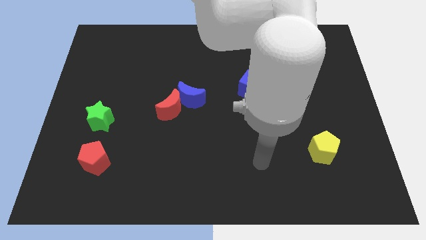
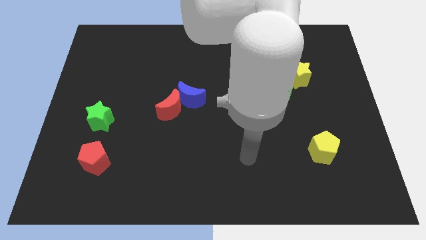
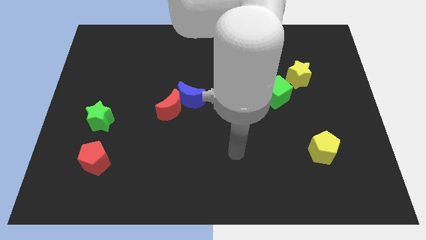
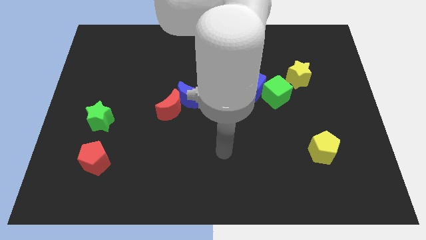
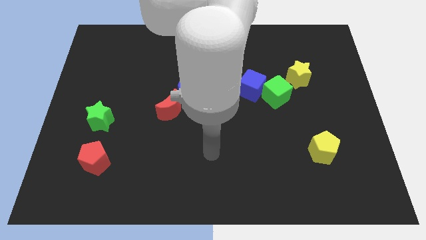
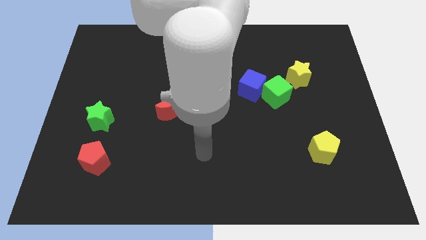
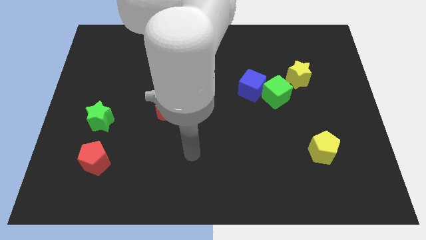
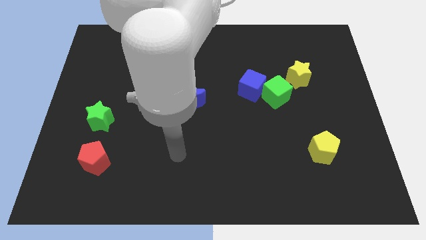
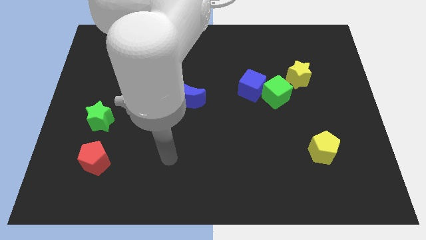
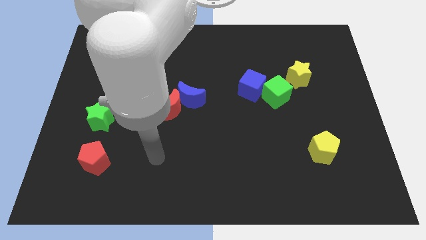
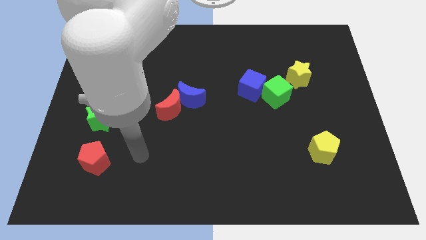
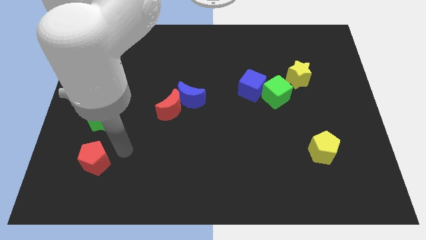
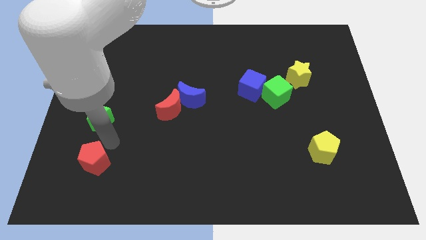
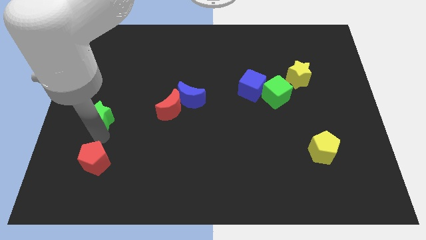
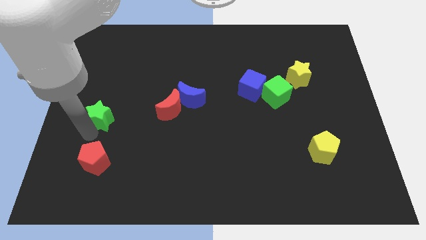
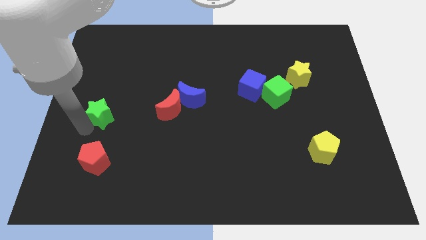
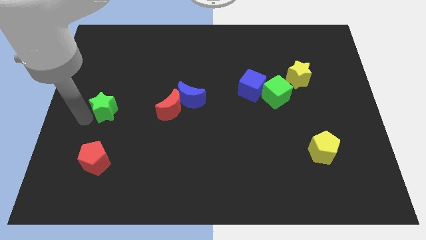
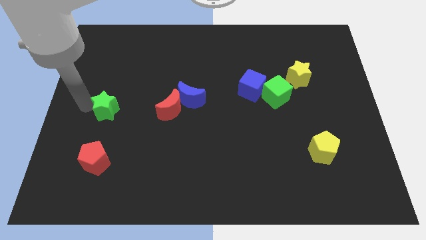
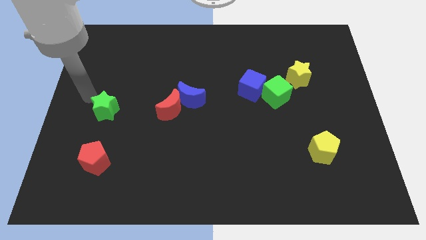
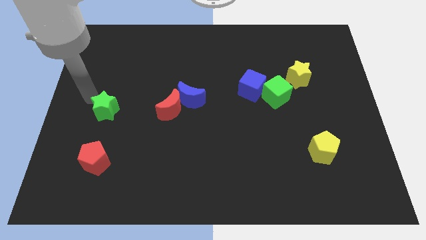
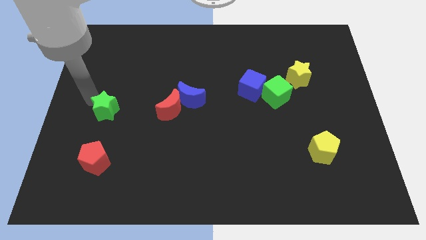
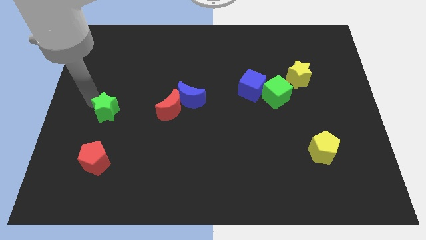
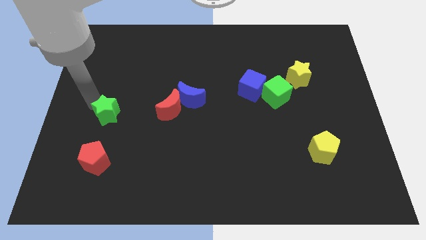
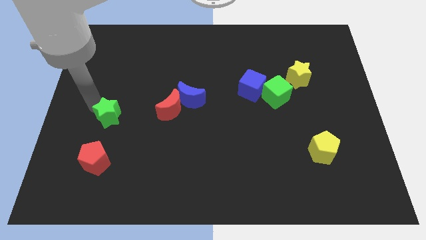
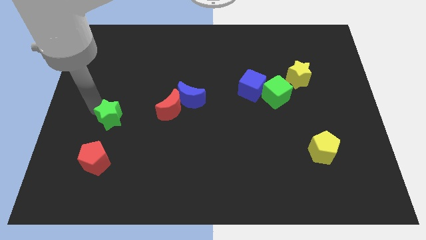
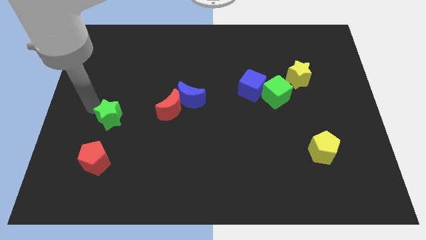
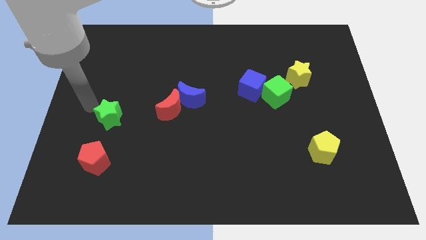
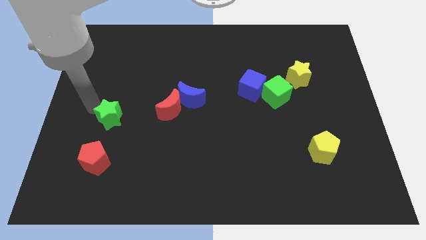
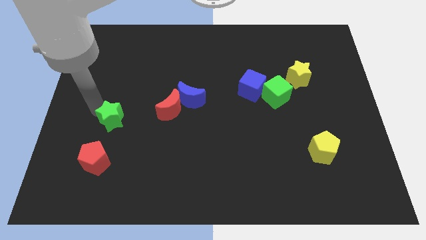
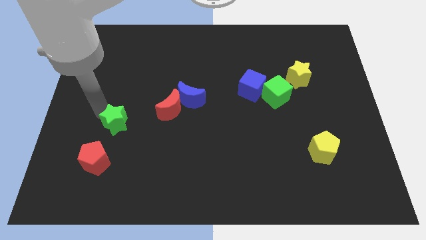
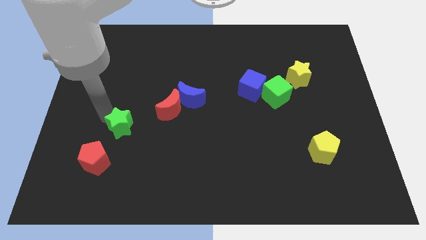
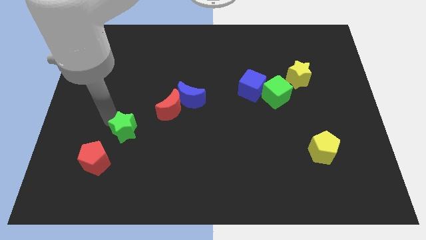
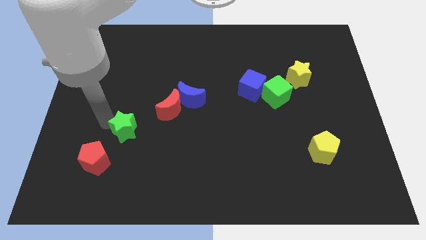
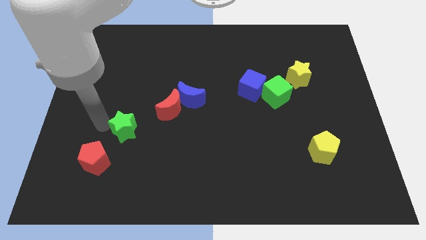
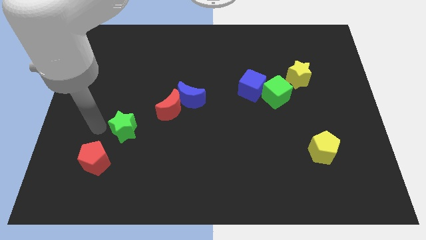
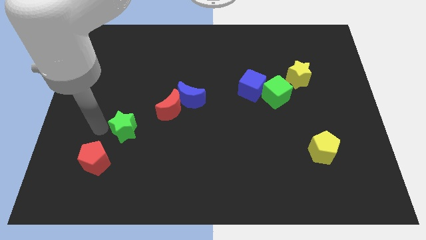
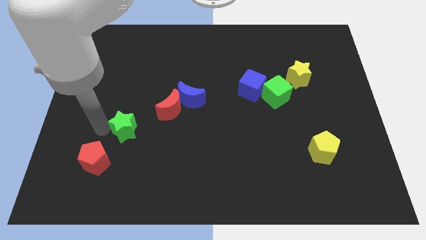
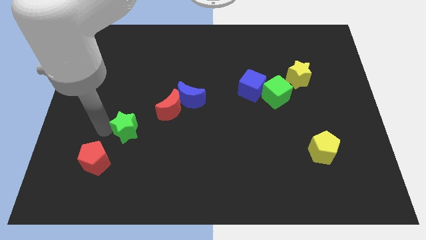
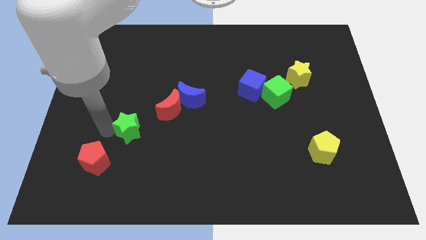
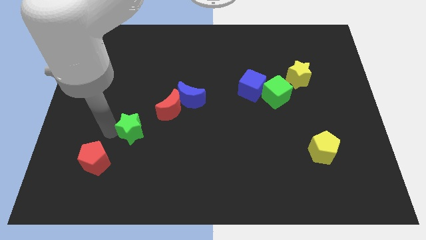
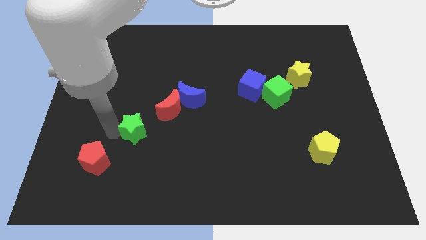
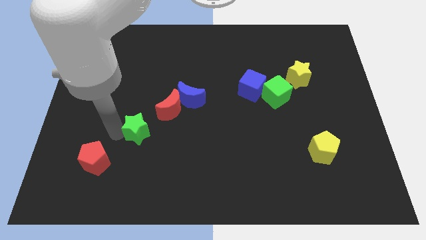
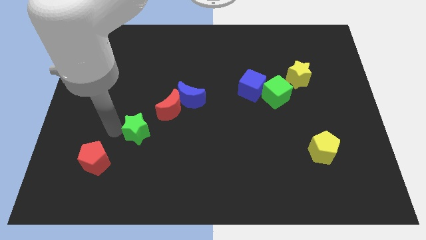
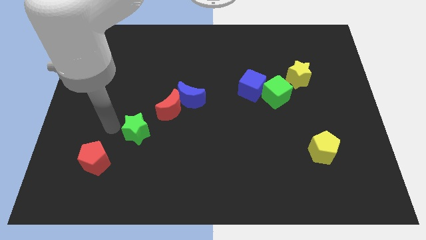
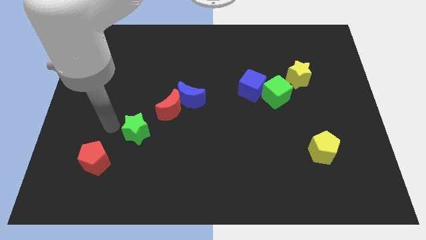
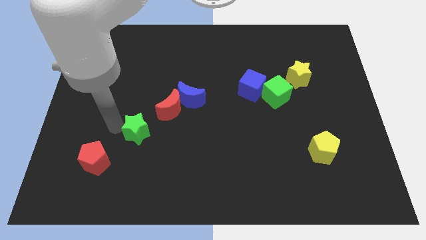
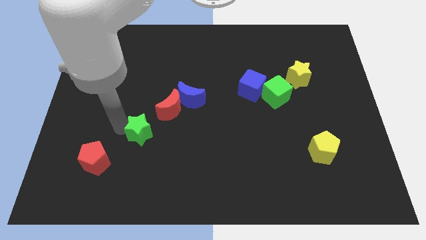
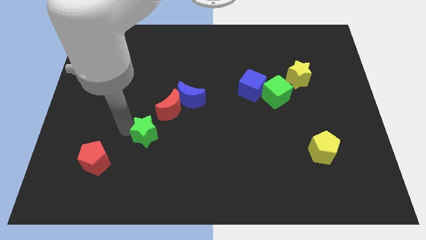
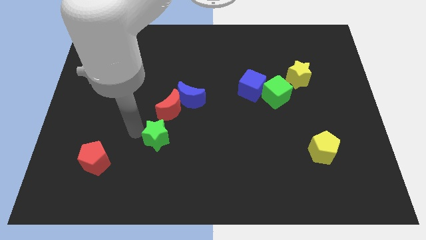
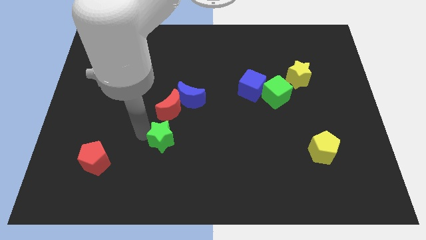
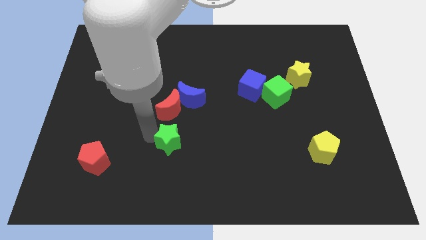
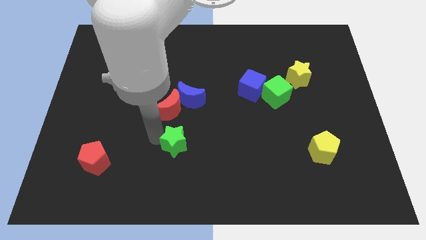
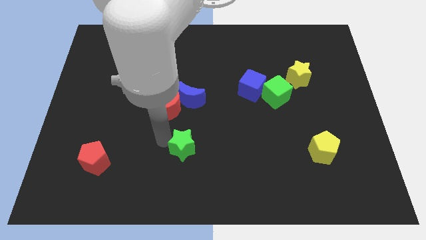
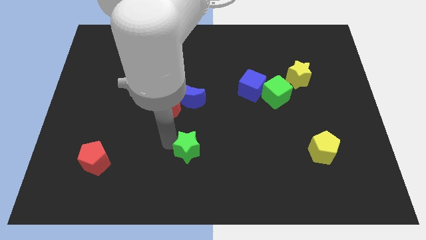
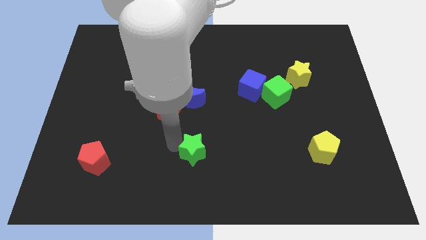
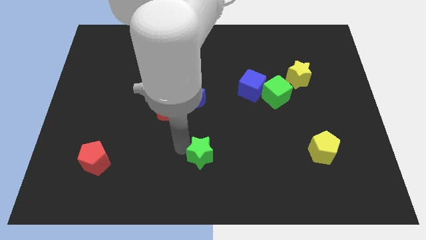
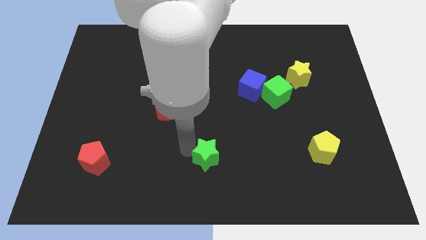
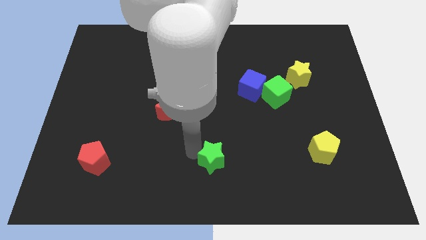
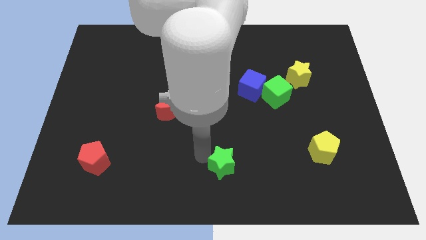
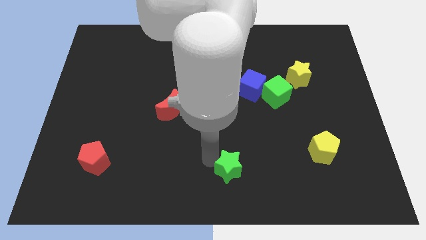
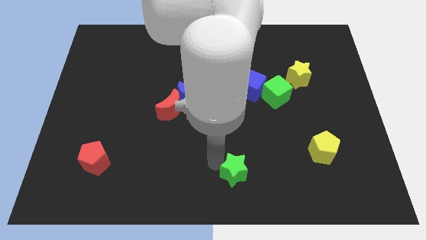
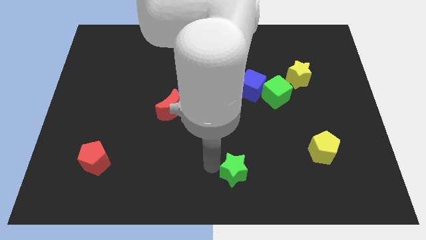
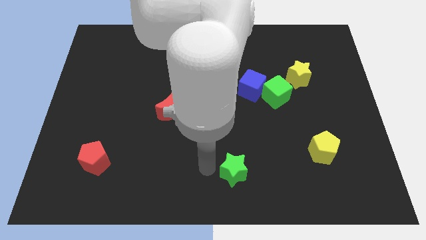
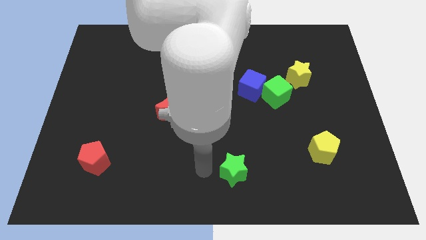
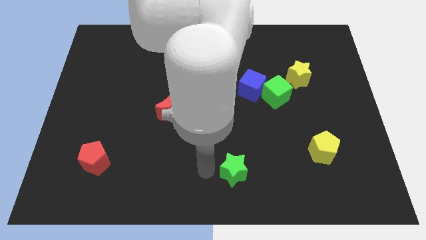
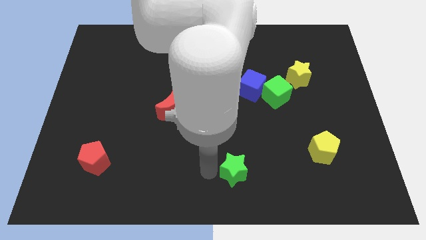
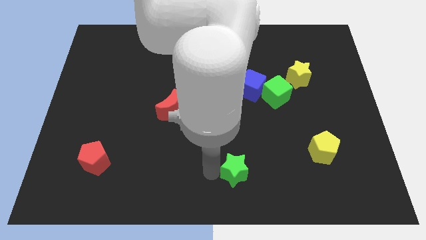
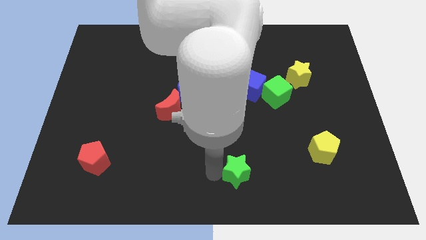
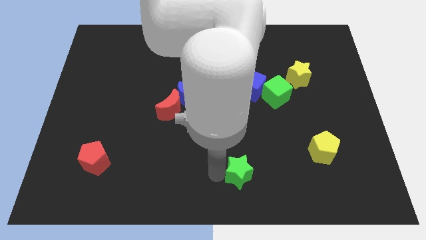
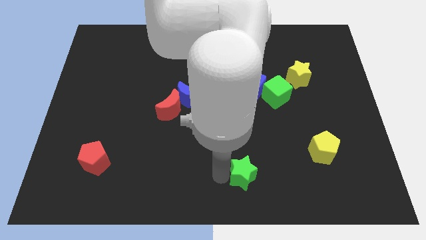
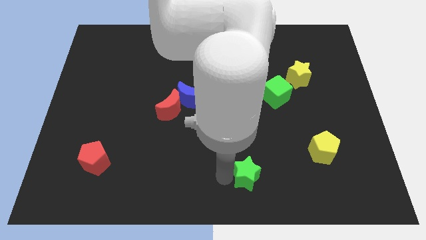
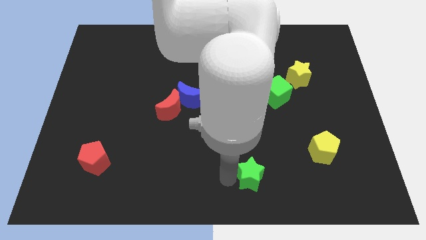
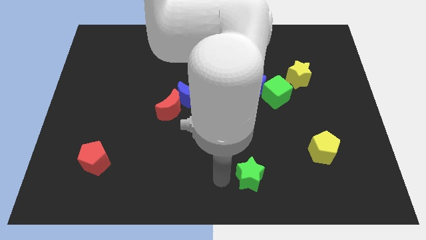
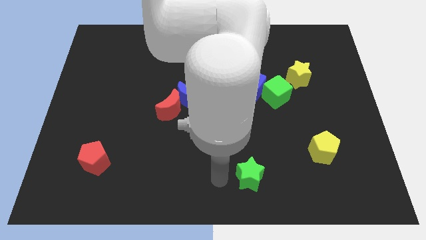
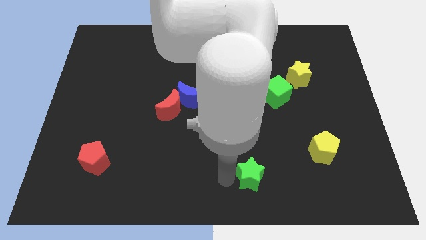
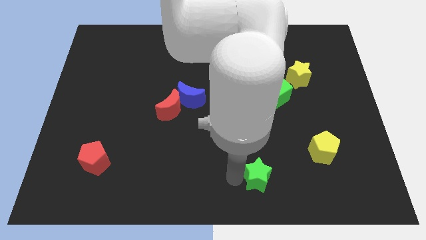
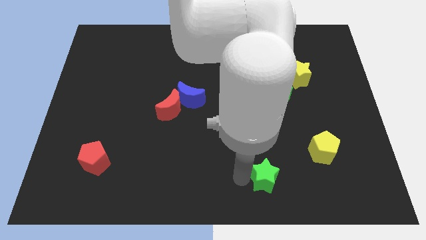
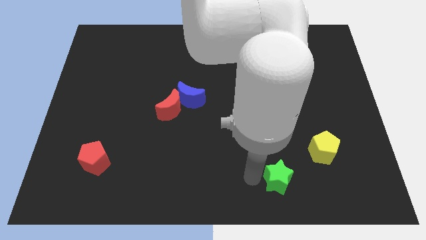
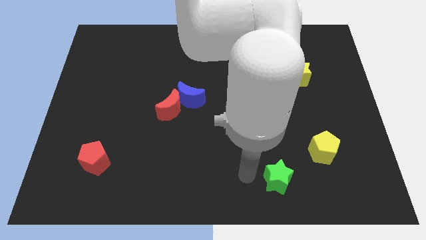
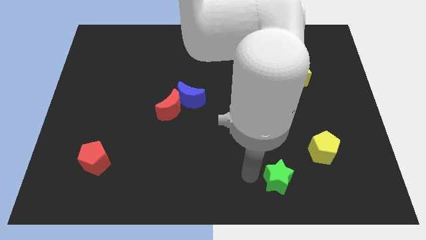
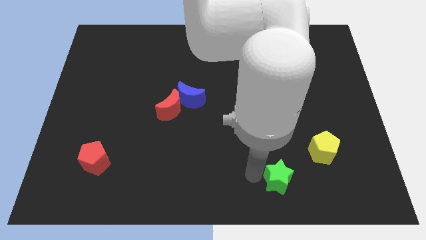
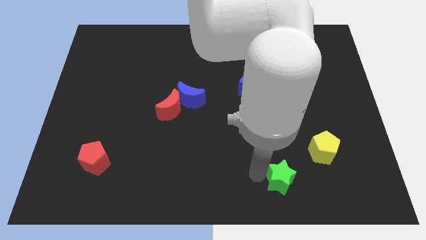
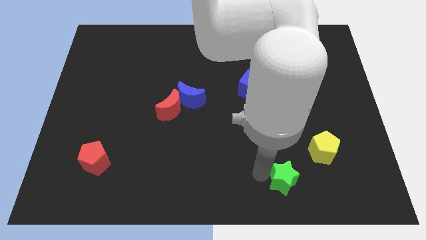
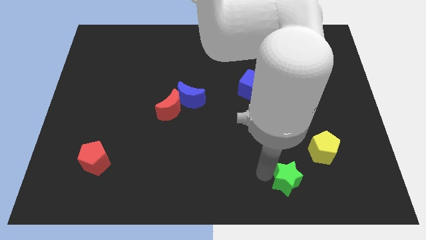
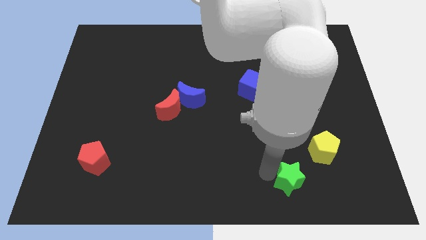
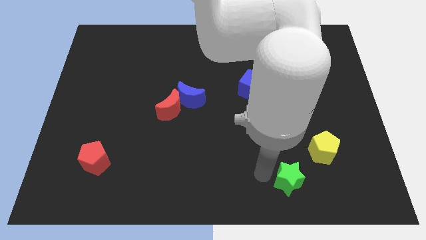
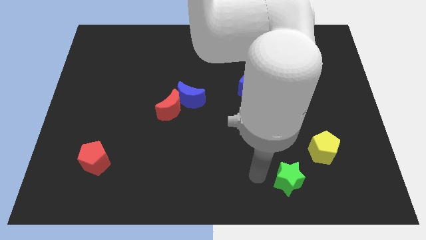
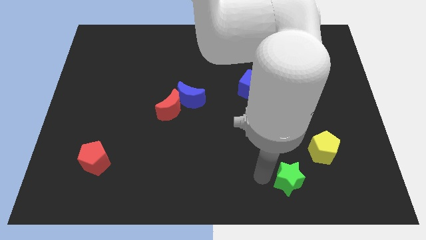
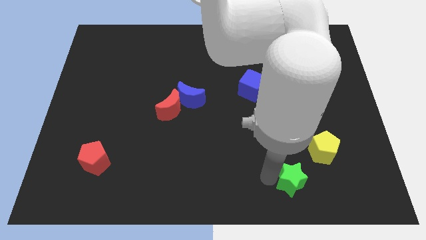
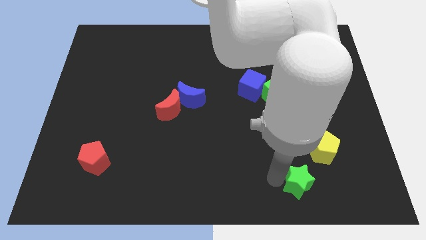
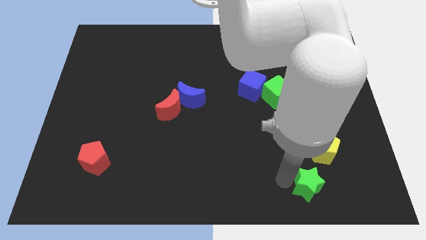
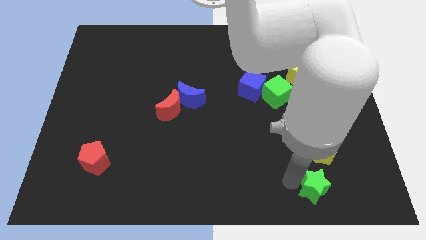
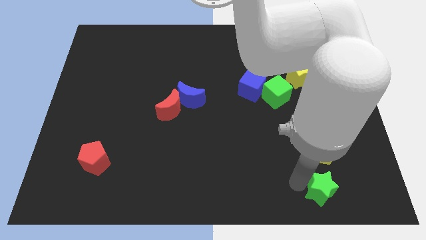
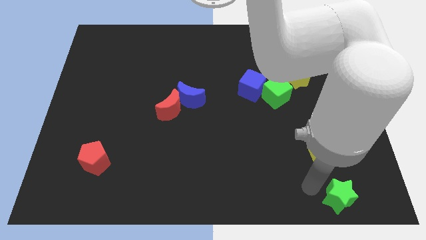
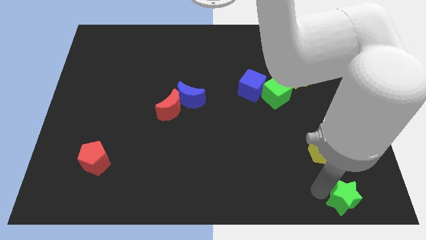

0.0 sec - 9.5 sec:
put the green star to the bottom right corner
